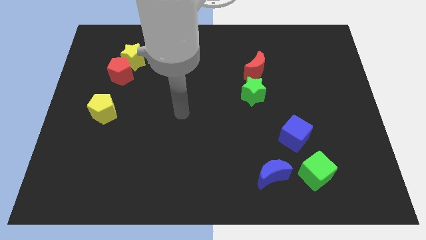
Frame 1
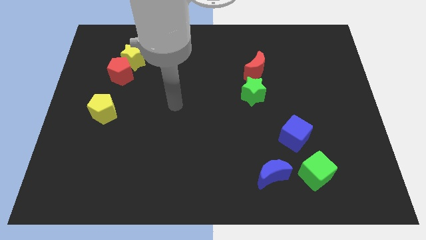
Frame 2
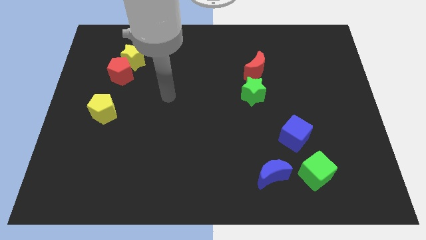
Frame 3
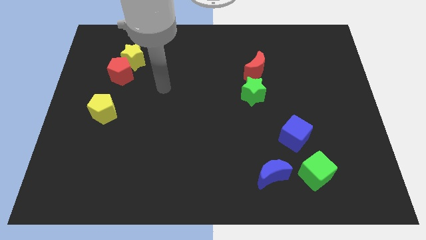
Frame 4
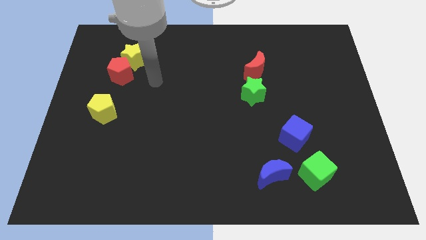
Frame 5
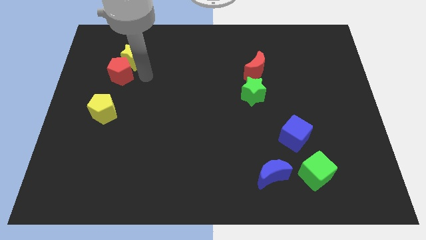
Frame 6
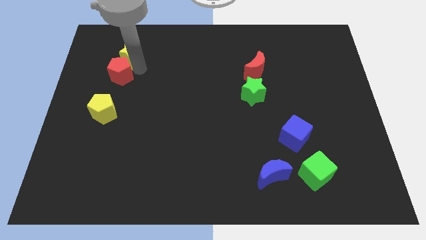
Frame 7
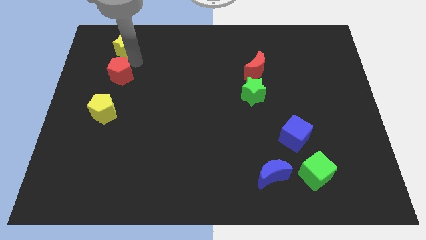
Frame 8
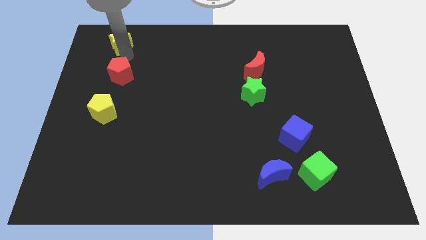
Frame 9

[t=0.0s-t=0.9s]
pull the red pentagon apart from the yellow star

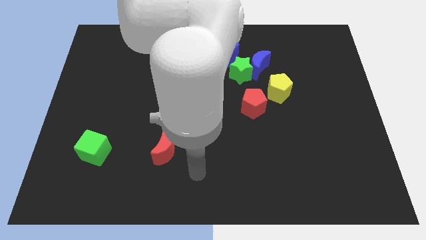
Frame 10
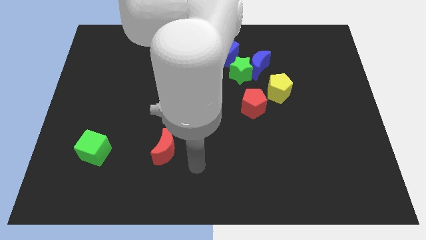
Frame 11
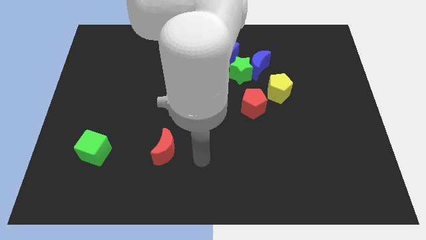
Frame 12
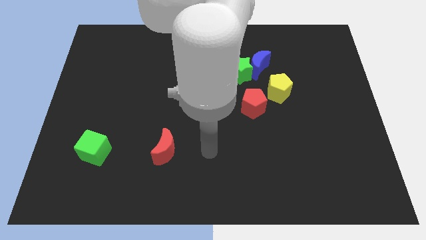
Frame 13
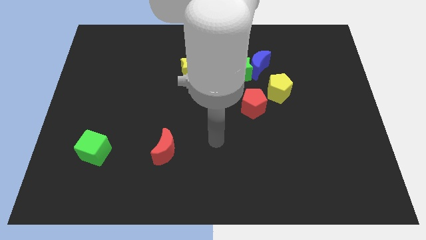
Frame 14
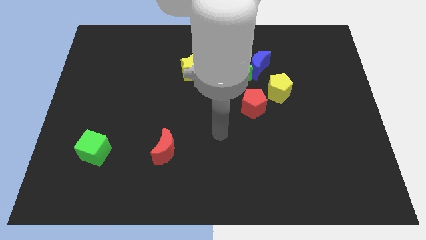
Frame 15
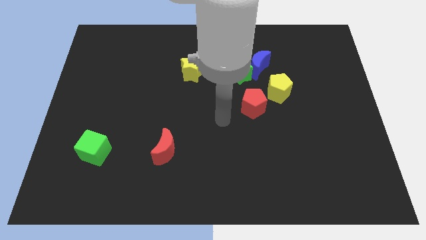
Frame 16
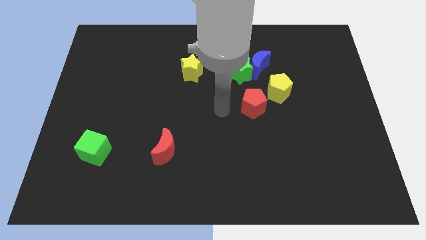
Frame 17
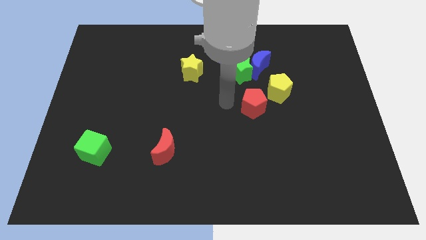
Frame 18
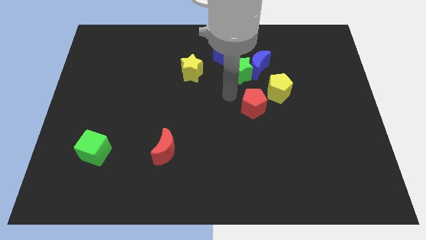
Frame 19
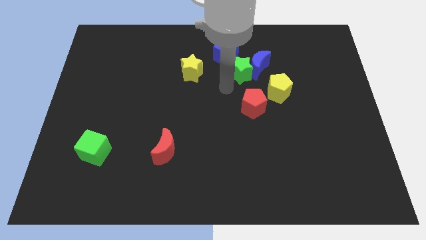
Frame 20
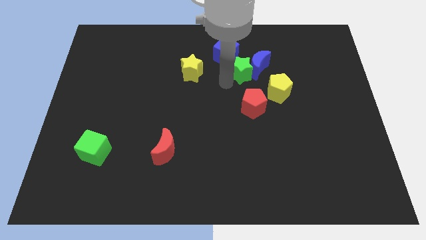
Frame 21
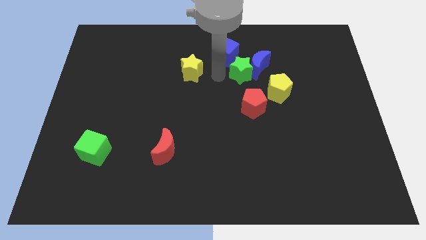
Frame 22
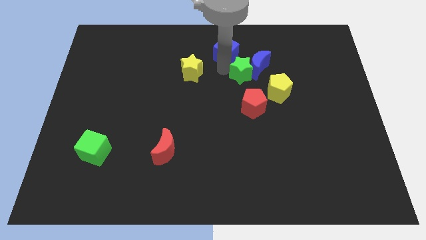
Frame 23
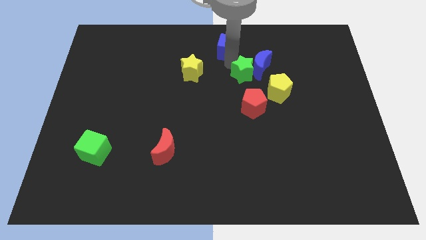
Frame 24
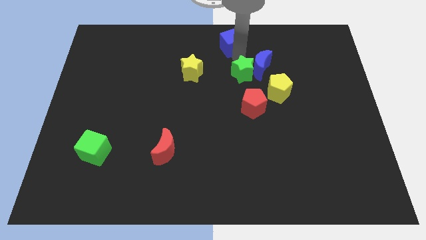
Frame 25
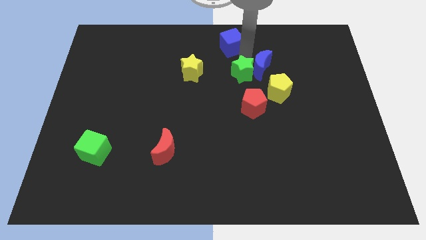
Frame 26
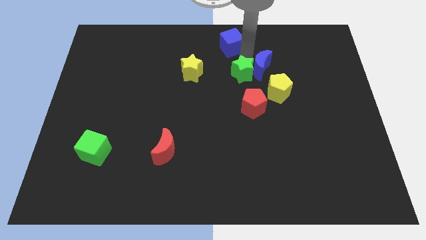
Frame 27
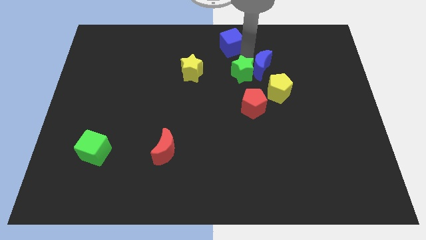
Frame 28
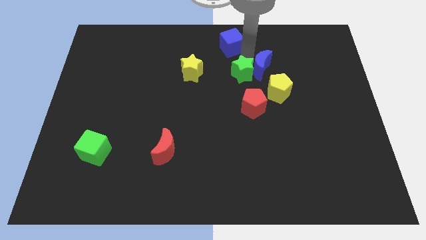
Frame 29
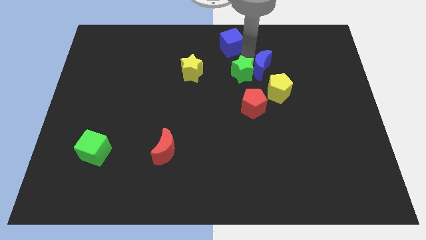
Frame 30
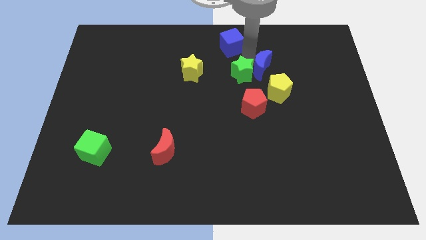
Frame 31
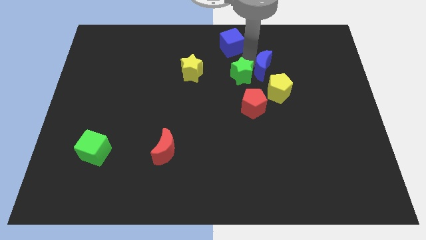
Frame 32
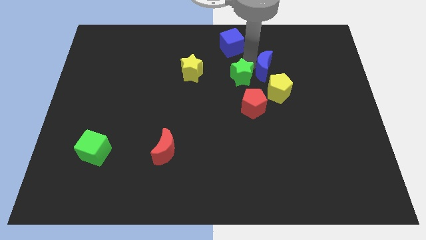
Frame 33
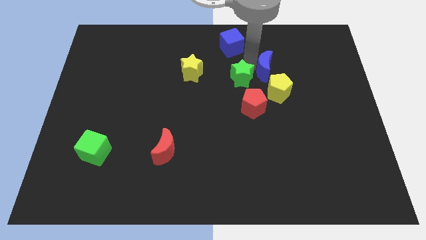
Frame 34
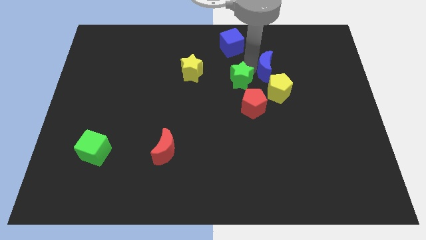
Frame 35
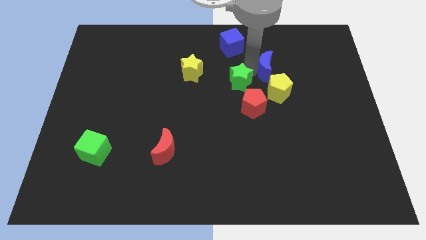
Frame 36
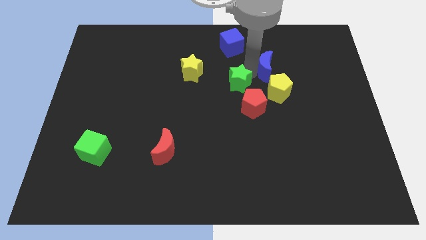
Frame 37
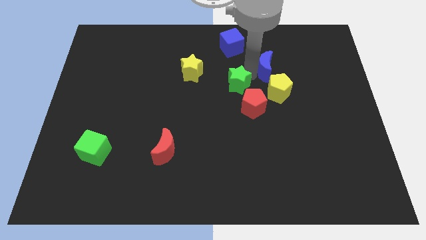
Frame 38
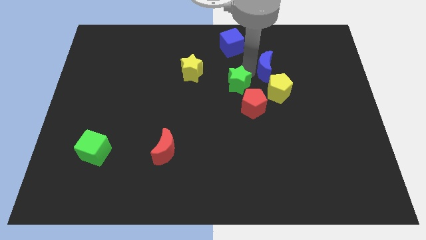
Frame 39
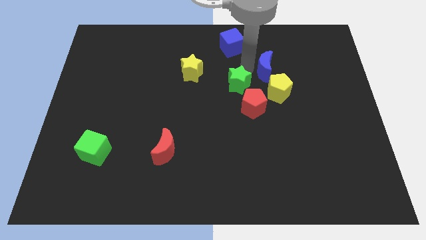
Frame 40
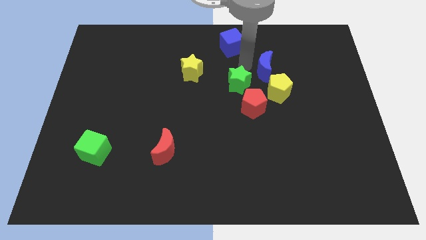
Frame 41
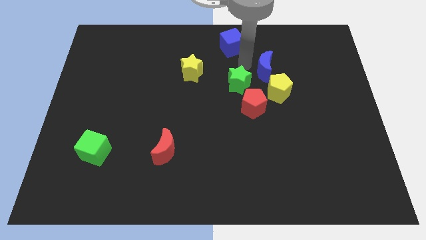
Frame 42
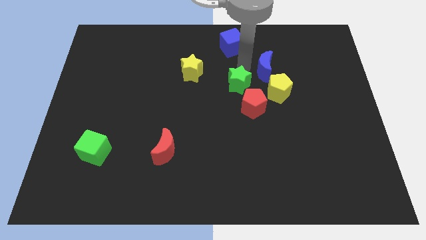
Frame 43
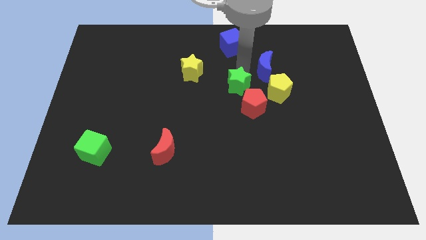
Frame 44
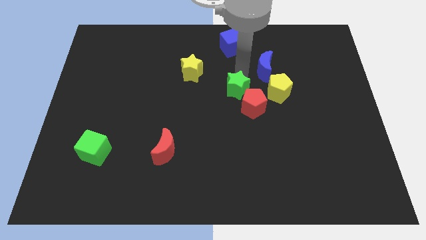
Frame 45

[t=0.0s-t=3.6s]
pull the green star apart from the blue moon and blue cube

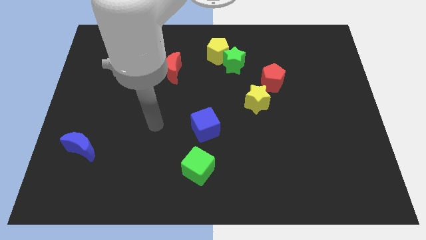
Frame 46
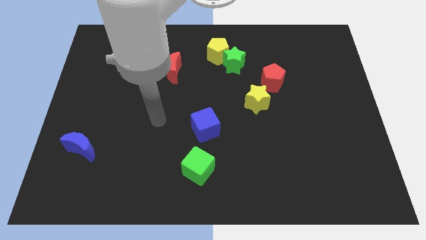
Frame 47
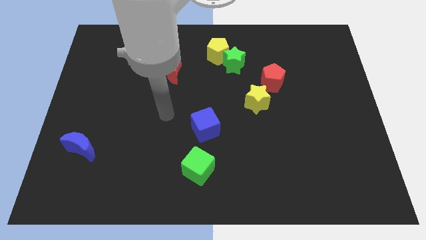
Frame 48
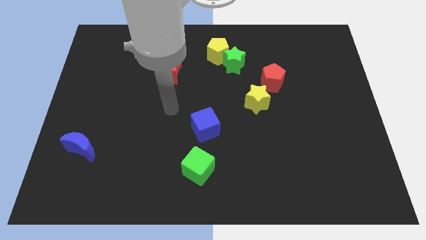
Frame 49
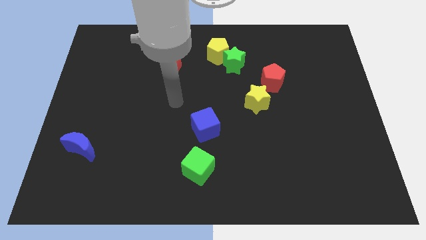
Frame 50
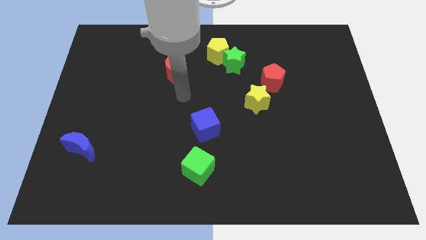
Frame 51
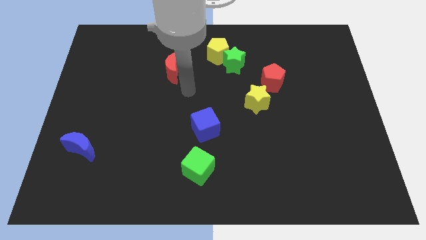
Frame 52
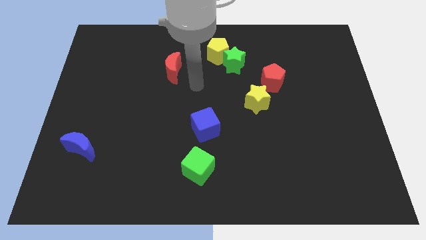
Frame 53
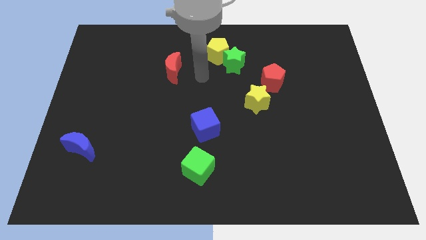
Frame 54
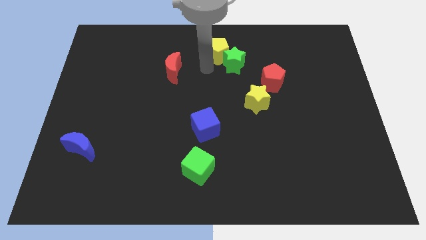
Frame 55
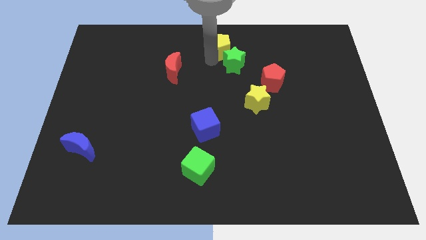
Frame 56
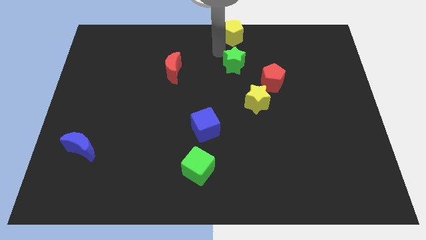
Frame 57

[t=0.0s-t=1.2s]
pull the green star apart from the yellow pentagon

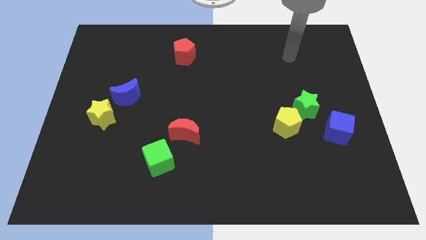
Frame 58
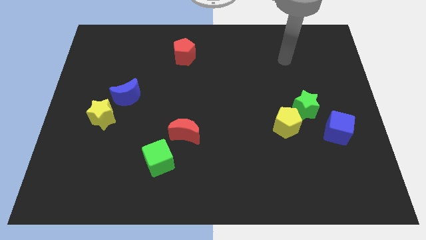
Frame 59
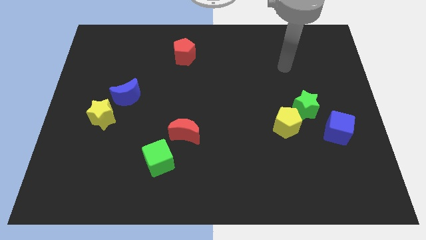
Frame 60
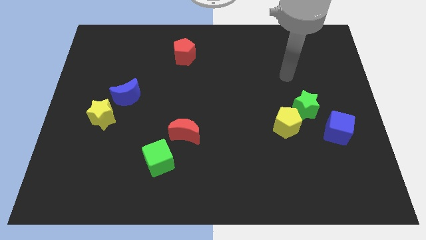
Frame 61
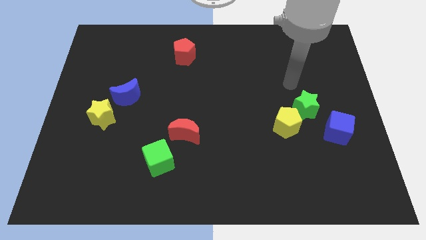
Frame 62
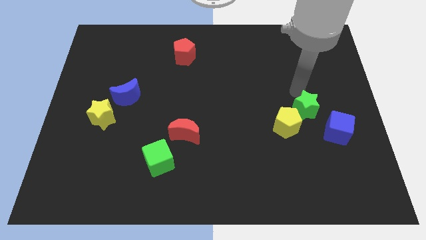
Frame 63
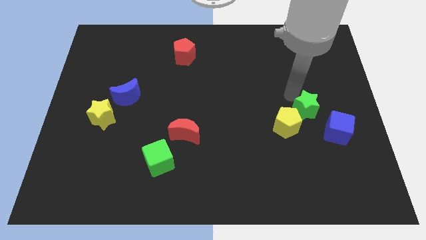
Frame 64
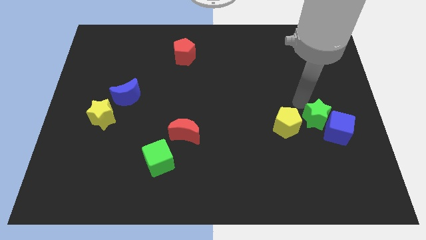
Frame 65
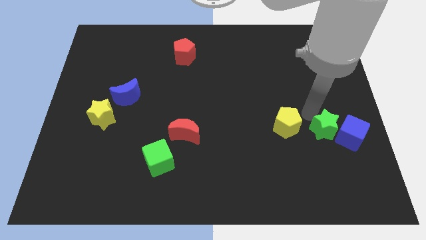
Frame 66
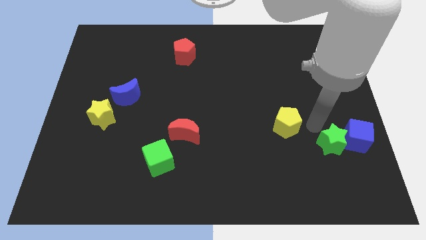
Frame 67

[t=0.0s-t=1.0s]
pull the yellow pentagon apart from the green star

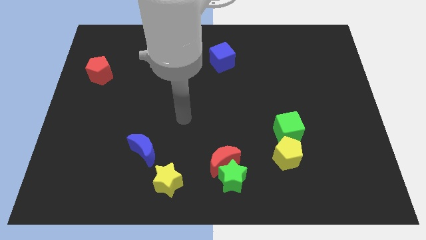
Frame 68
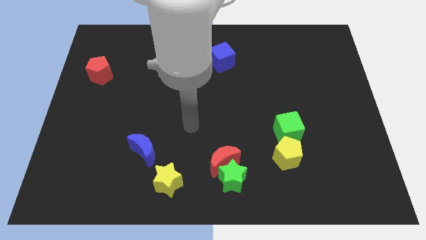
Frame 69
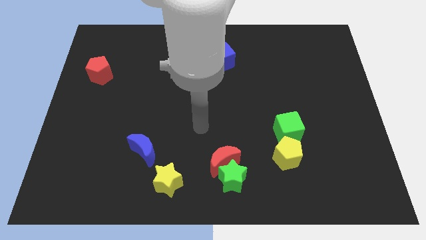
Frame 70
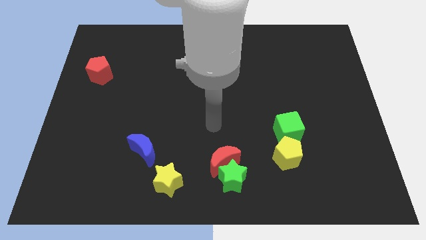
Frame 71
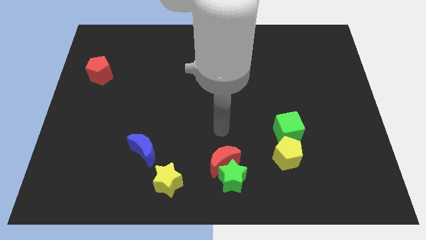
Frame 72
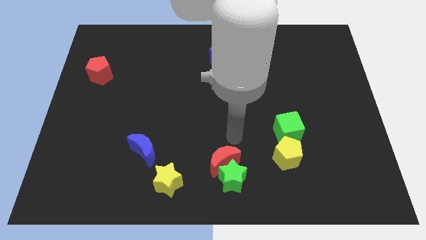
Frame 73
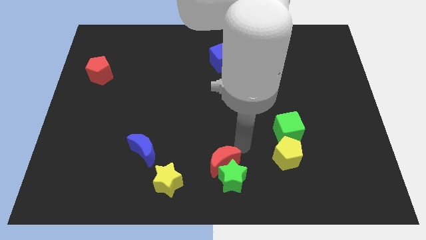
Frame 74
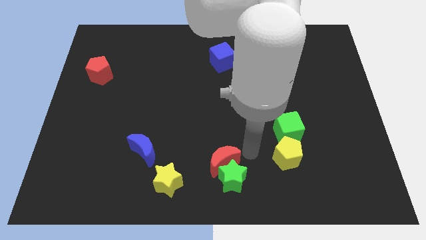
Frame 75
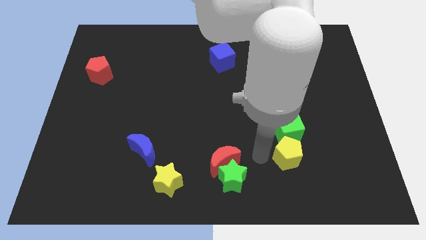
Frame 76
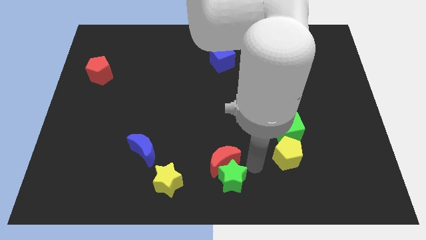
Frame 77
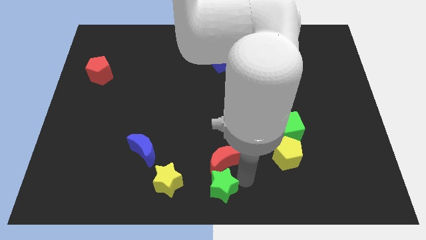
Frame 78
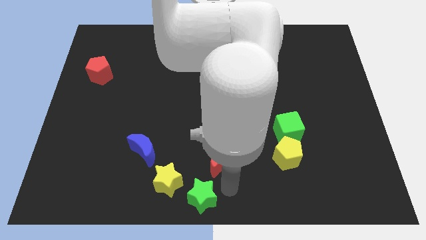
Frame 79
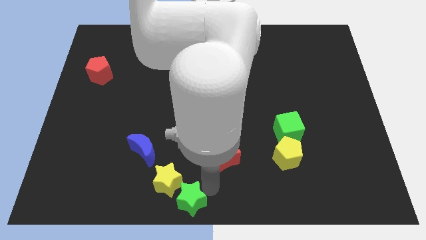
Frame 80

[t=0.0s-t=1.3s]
separate the red moon from the green star

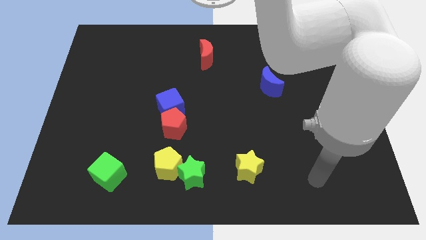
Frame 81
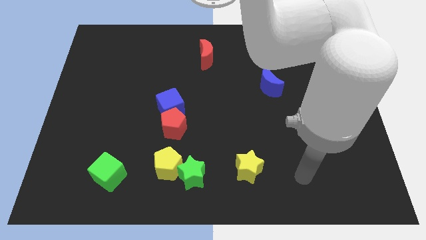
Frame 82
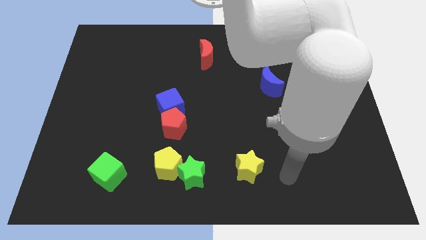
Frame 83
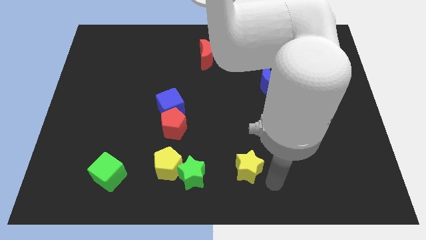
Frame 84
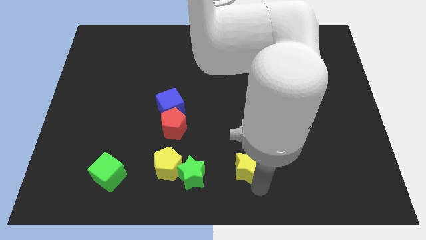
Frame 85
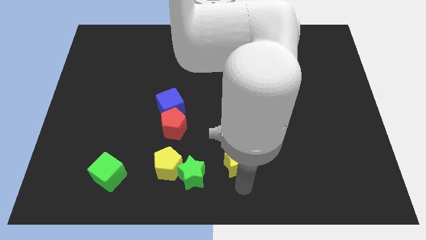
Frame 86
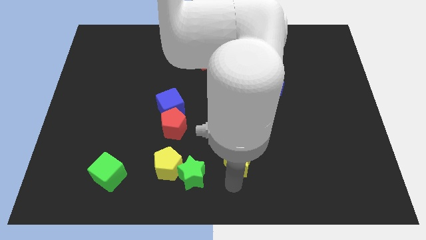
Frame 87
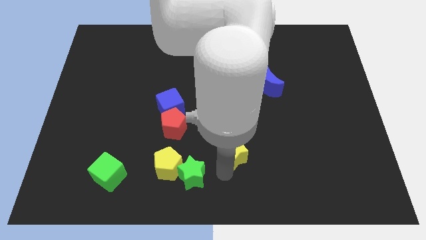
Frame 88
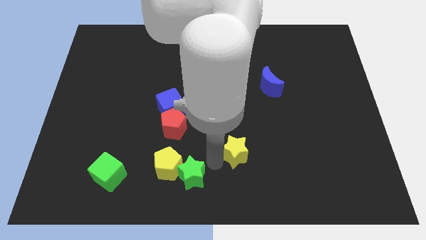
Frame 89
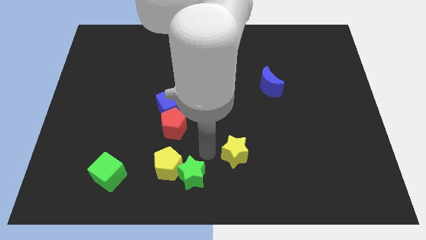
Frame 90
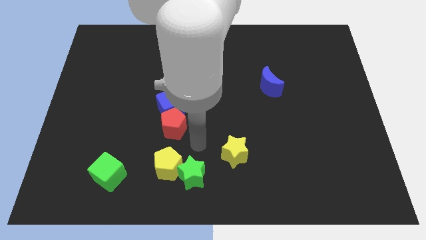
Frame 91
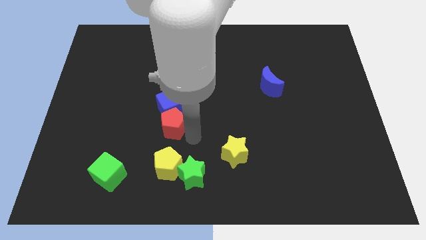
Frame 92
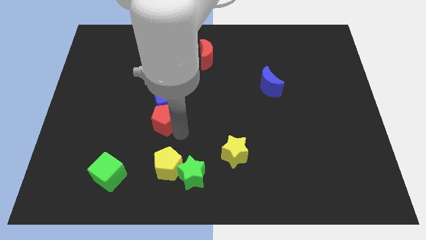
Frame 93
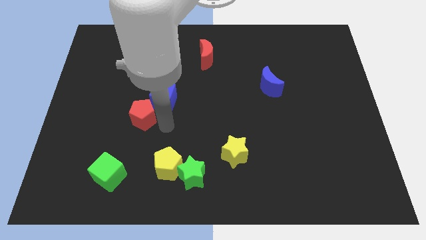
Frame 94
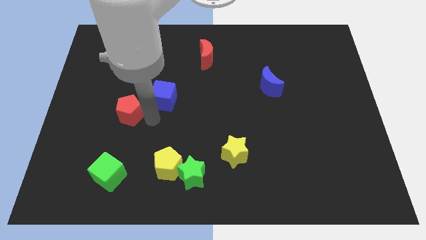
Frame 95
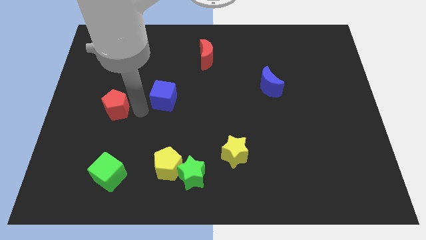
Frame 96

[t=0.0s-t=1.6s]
move the blue cube away from the red pentagon
